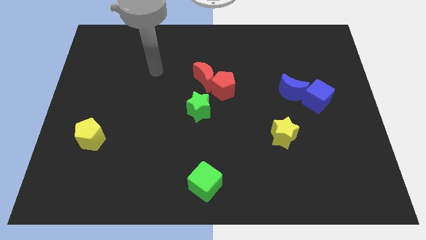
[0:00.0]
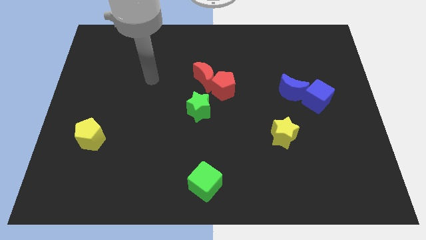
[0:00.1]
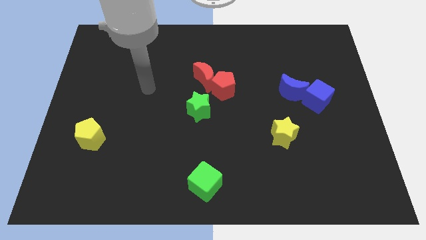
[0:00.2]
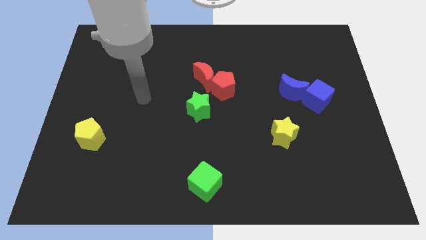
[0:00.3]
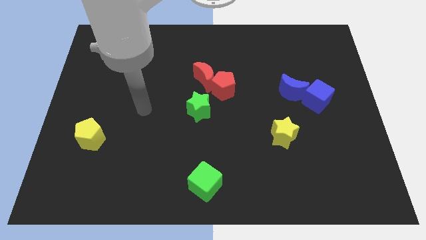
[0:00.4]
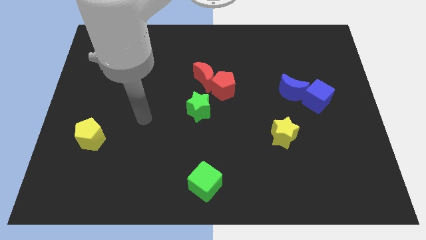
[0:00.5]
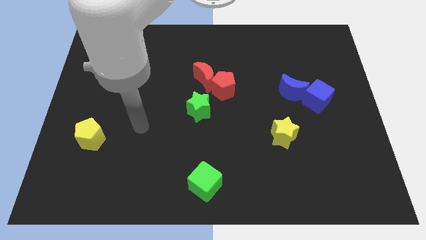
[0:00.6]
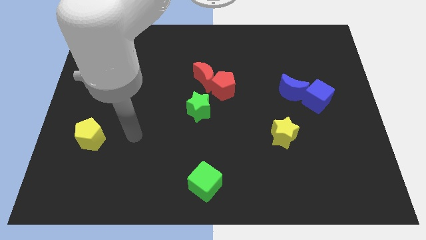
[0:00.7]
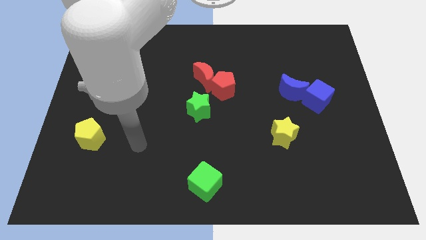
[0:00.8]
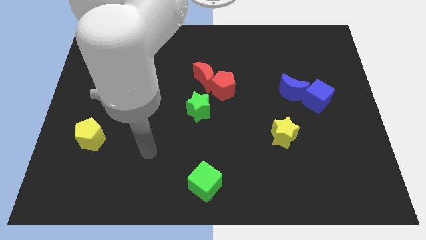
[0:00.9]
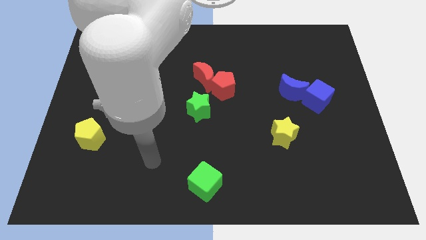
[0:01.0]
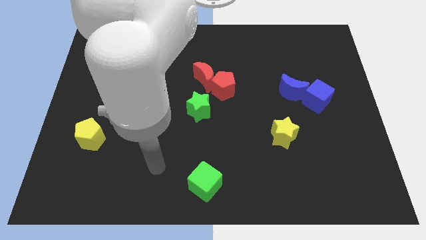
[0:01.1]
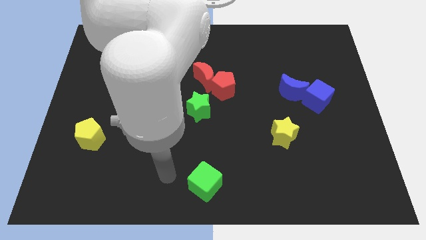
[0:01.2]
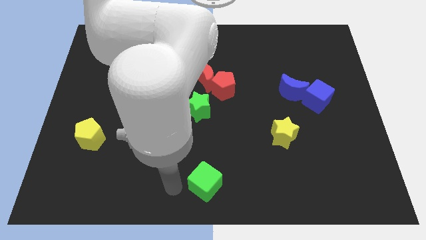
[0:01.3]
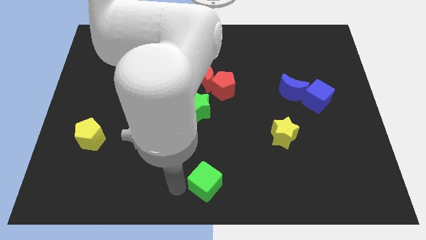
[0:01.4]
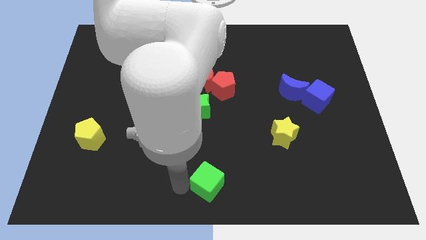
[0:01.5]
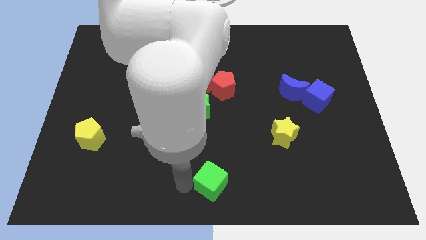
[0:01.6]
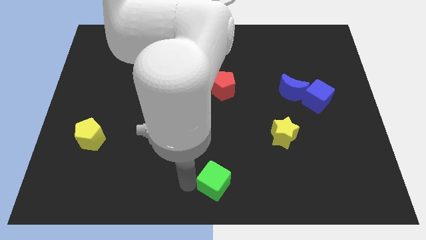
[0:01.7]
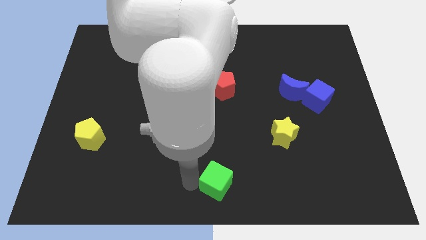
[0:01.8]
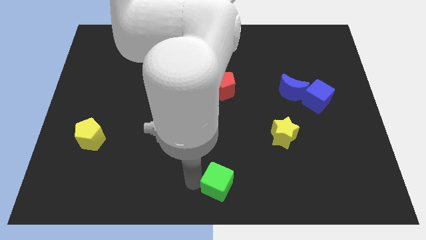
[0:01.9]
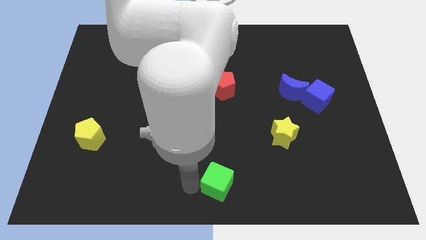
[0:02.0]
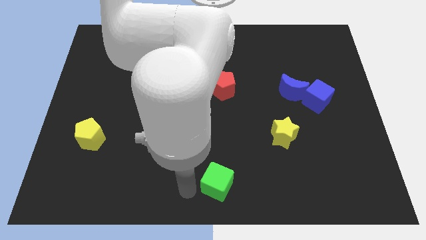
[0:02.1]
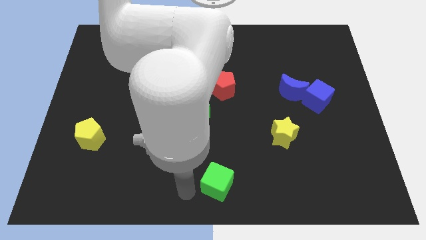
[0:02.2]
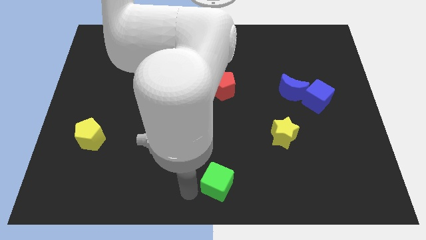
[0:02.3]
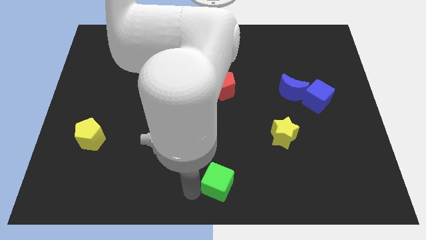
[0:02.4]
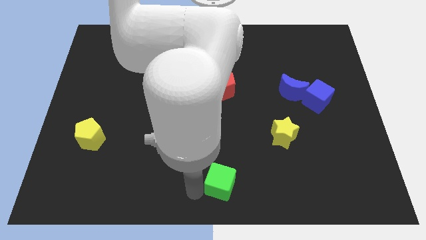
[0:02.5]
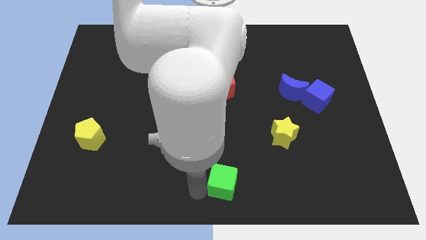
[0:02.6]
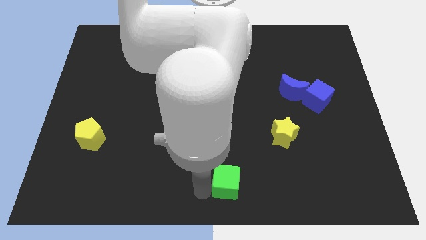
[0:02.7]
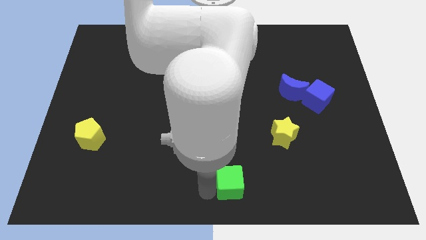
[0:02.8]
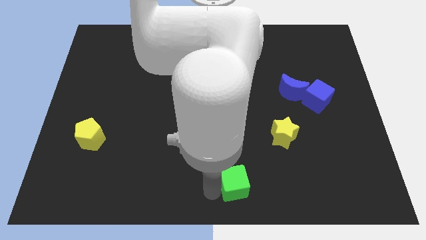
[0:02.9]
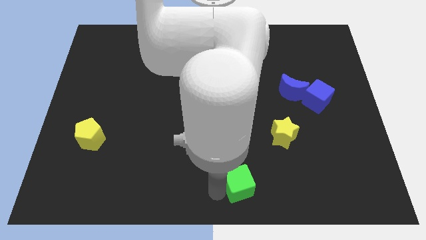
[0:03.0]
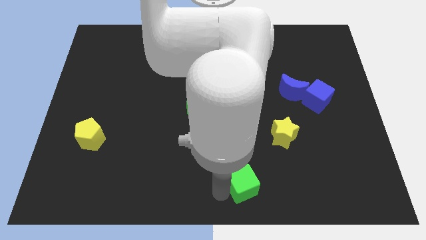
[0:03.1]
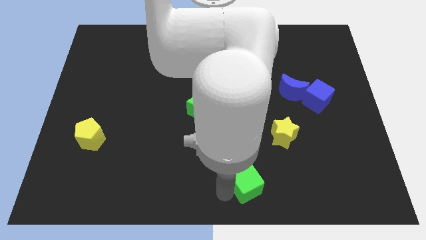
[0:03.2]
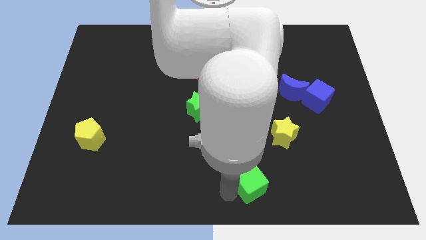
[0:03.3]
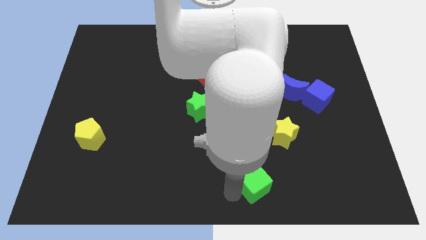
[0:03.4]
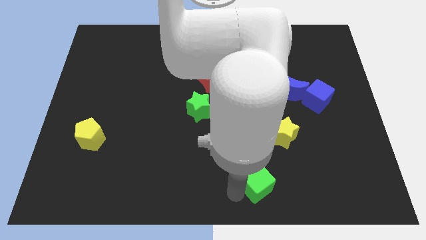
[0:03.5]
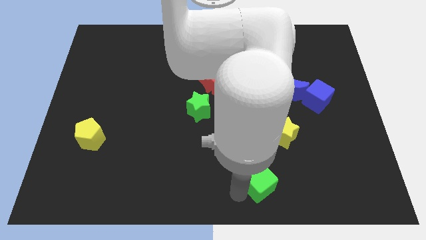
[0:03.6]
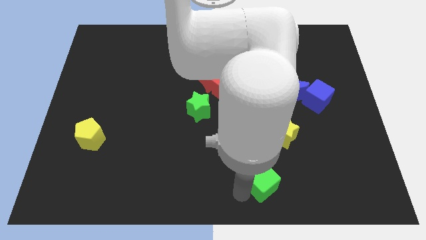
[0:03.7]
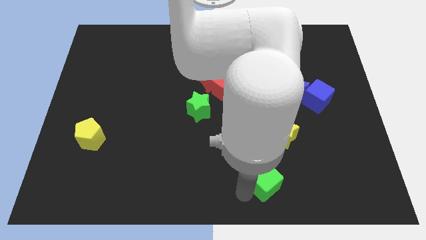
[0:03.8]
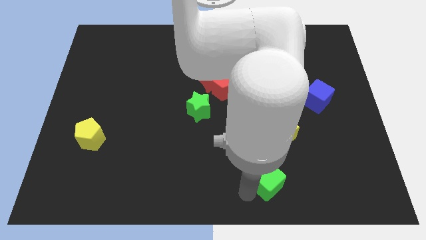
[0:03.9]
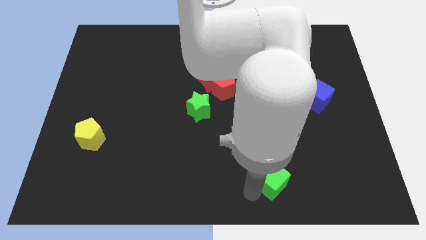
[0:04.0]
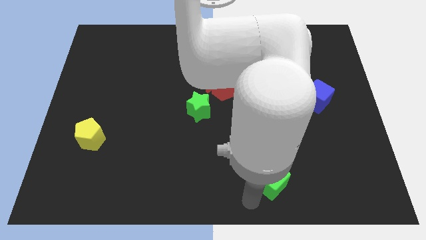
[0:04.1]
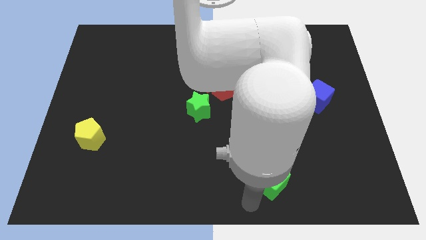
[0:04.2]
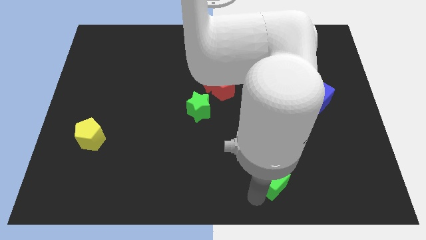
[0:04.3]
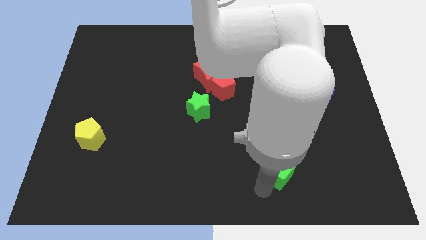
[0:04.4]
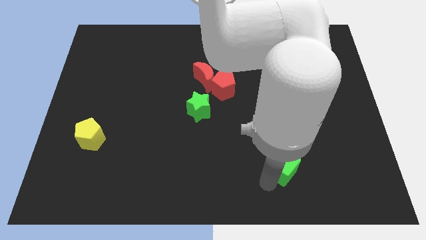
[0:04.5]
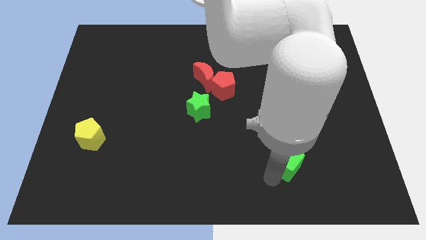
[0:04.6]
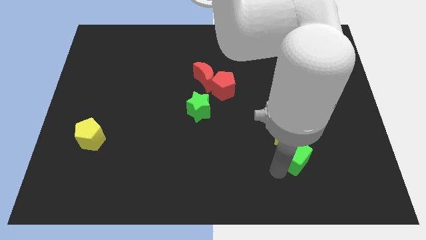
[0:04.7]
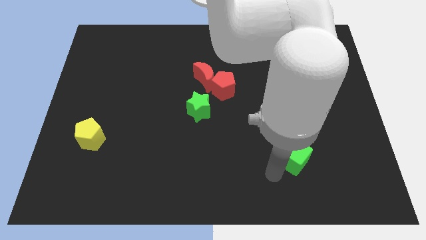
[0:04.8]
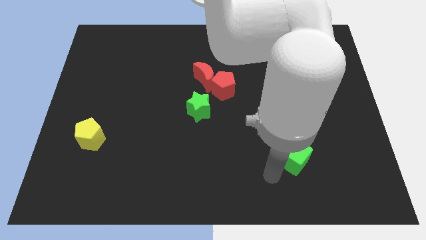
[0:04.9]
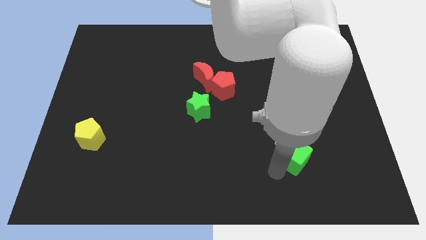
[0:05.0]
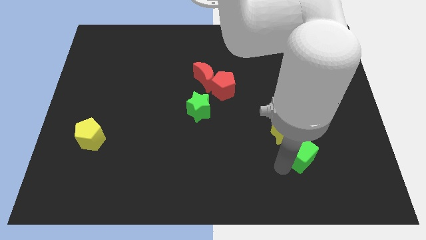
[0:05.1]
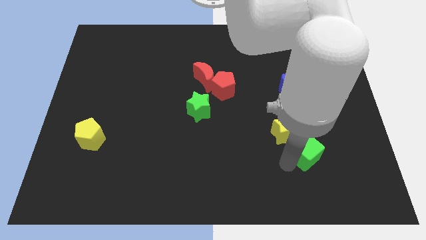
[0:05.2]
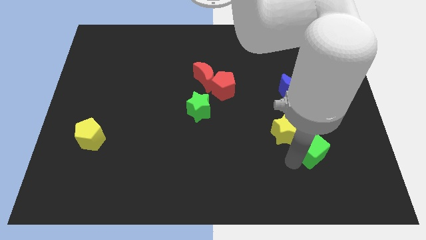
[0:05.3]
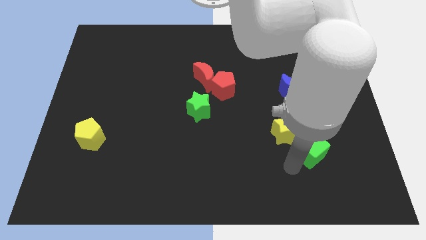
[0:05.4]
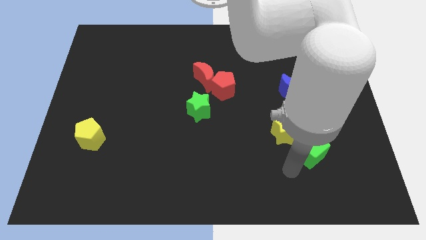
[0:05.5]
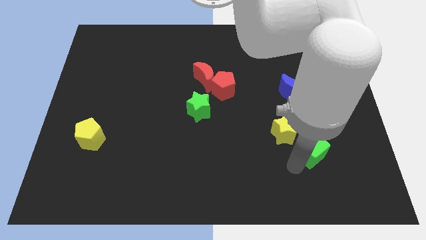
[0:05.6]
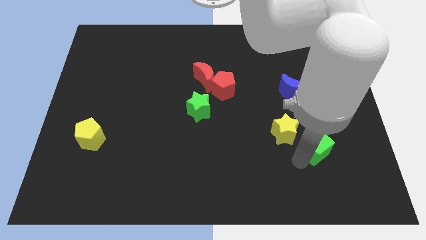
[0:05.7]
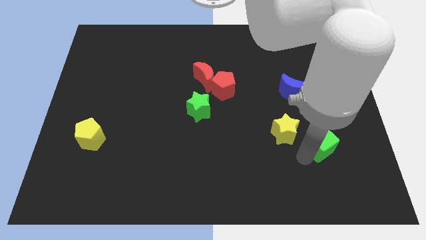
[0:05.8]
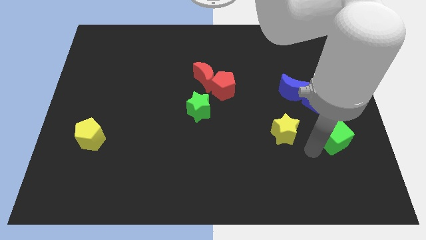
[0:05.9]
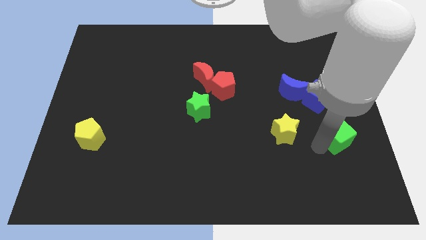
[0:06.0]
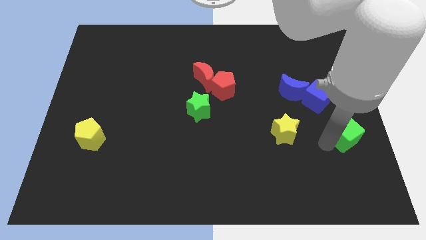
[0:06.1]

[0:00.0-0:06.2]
push the green cube to the center right

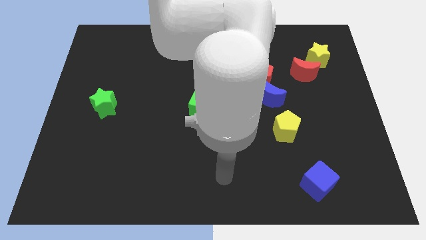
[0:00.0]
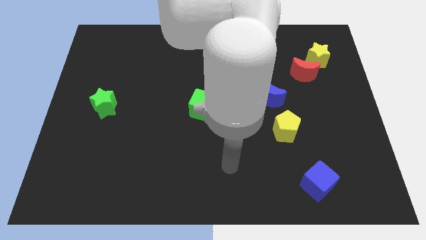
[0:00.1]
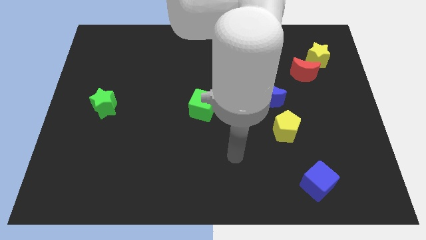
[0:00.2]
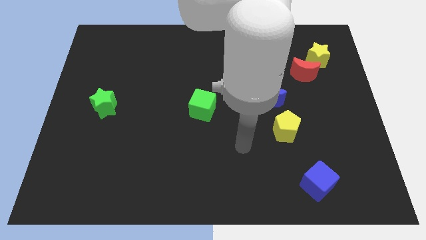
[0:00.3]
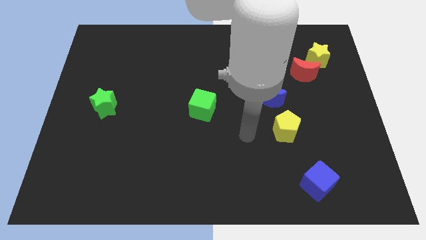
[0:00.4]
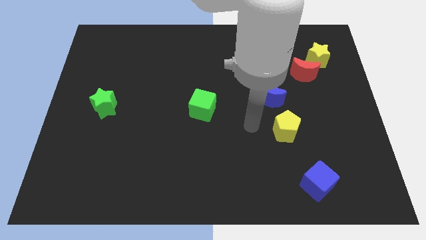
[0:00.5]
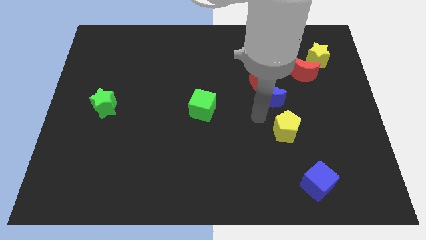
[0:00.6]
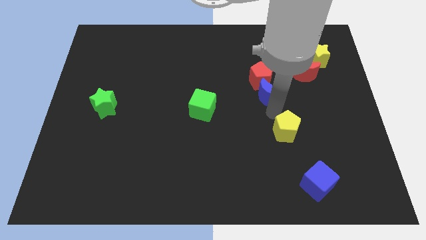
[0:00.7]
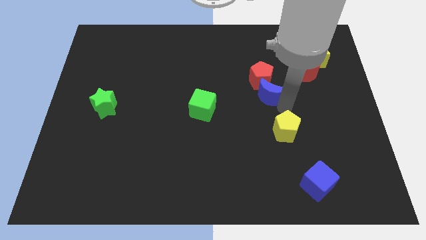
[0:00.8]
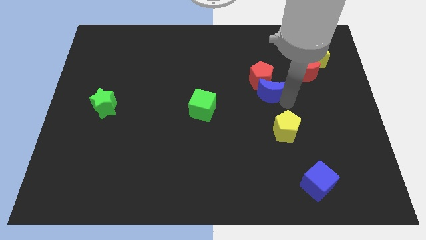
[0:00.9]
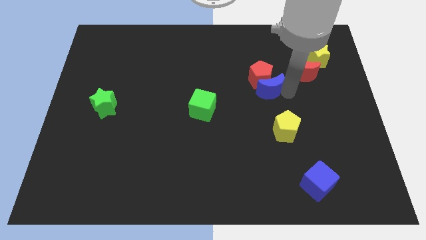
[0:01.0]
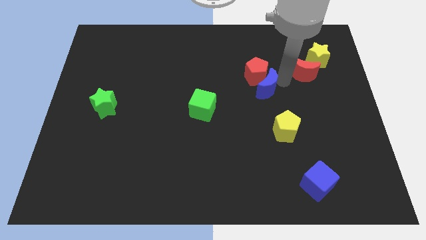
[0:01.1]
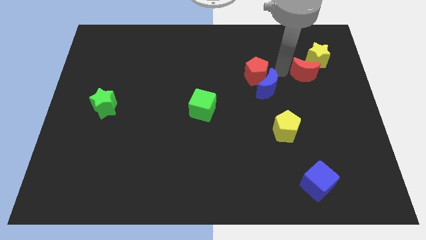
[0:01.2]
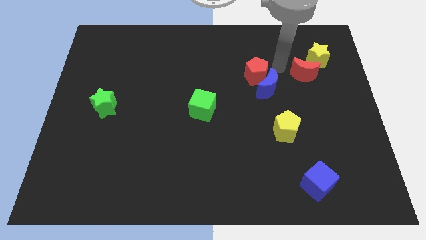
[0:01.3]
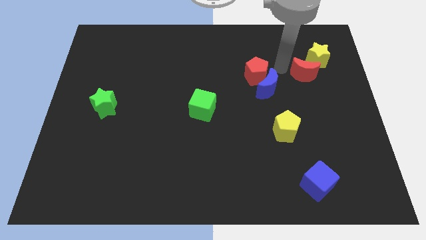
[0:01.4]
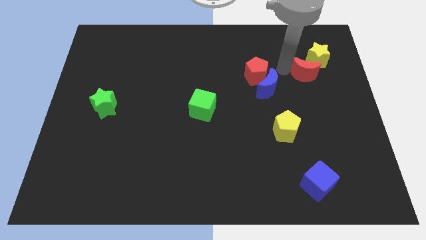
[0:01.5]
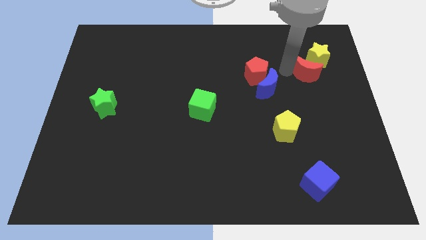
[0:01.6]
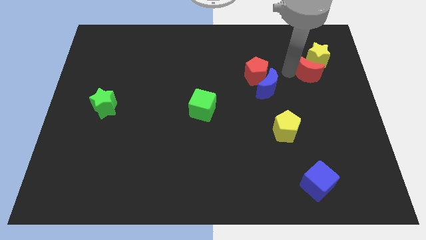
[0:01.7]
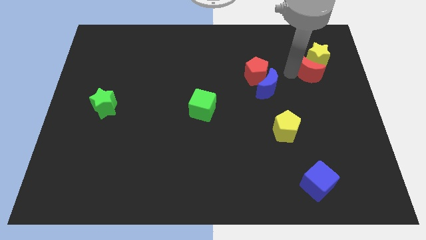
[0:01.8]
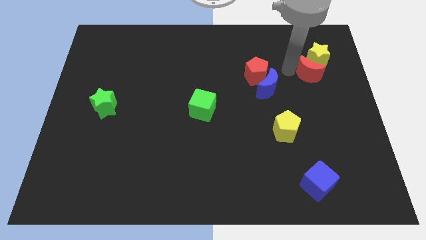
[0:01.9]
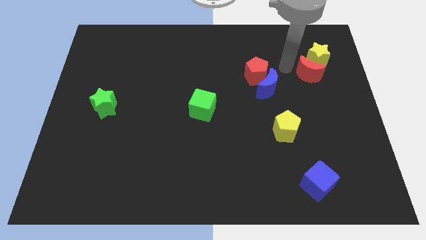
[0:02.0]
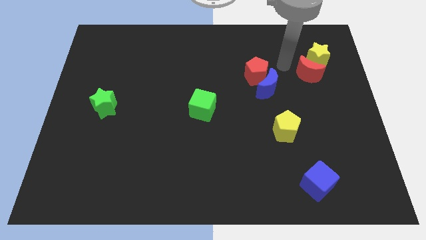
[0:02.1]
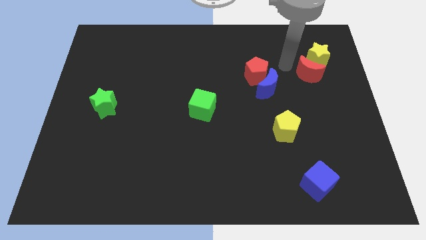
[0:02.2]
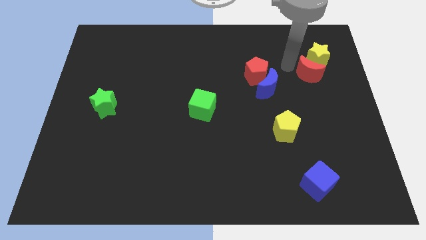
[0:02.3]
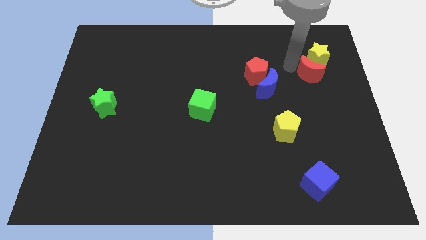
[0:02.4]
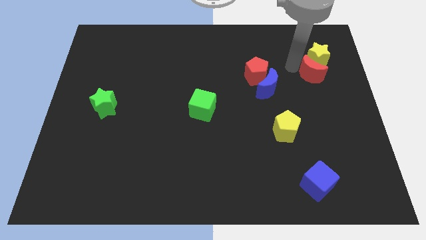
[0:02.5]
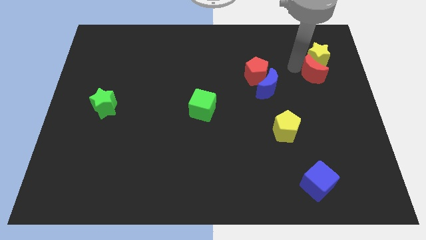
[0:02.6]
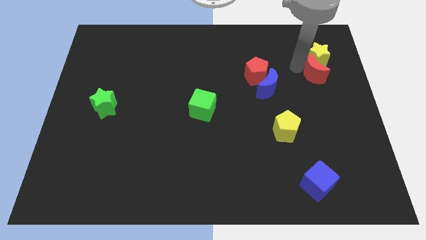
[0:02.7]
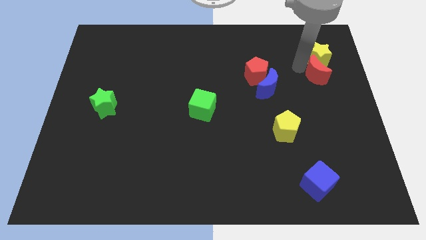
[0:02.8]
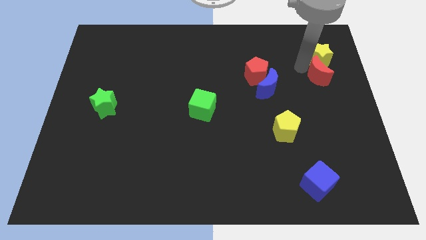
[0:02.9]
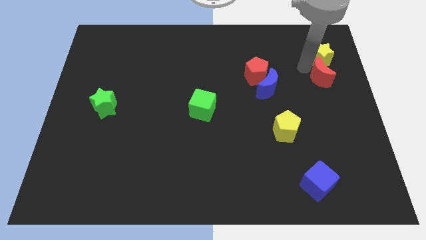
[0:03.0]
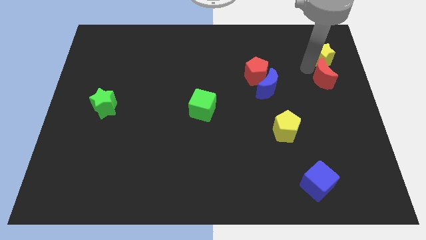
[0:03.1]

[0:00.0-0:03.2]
put the red moon to the right side
